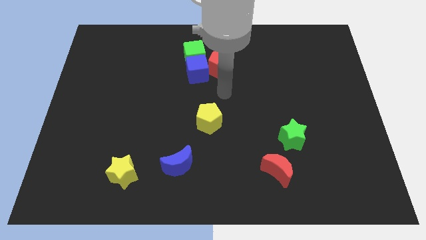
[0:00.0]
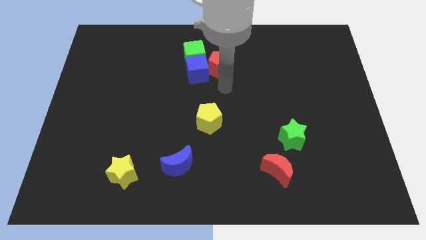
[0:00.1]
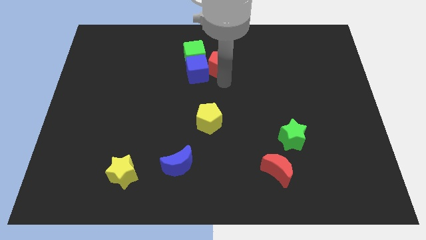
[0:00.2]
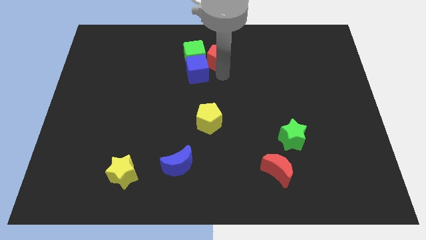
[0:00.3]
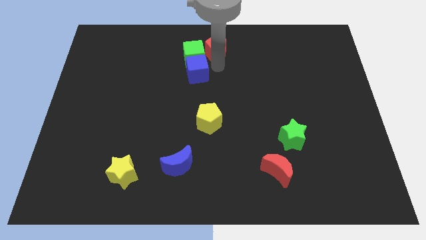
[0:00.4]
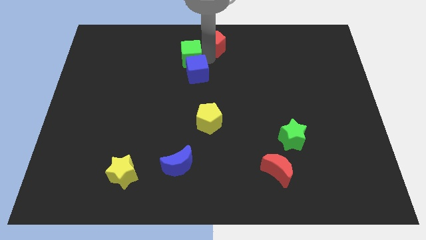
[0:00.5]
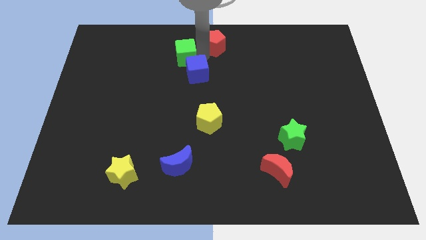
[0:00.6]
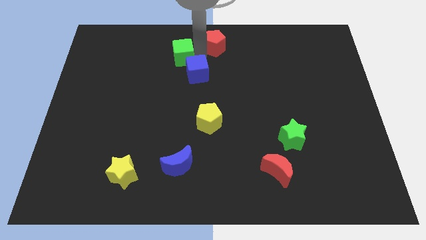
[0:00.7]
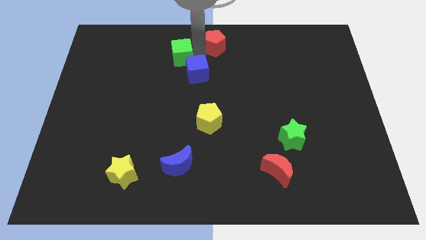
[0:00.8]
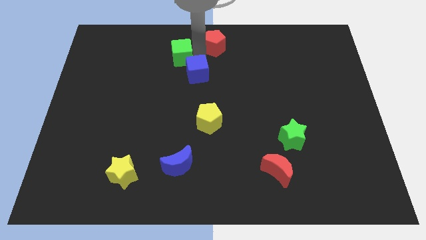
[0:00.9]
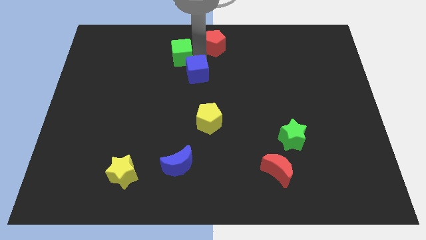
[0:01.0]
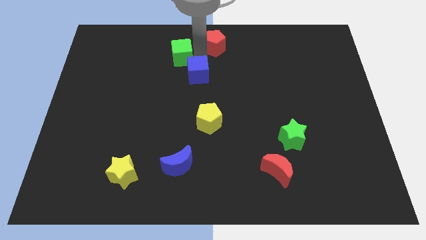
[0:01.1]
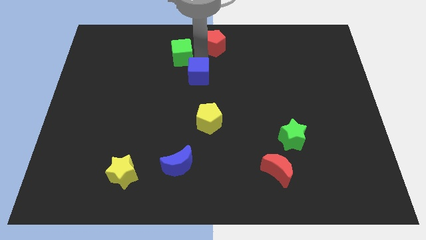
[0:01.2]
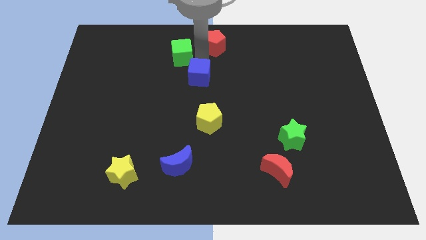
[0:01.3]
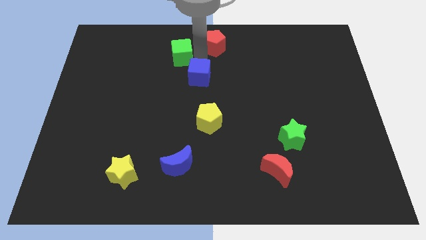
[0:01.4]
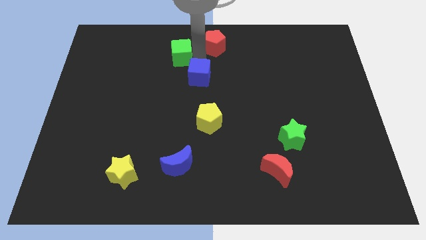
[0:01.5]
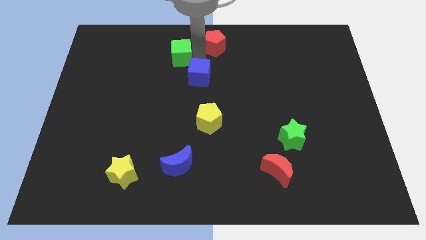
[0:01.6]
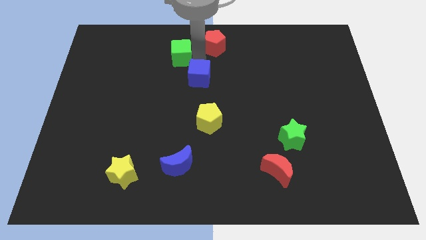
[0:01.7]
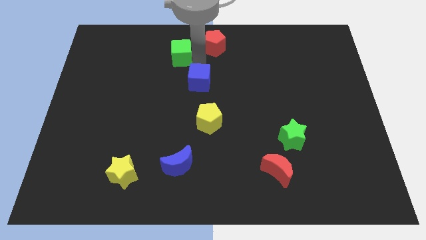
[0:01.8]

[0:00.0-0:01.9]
separate the blue cube from the green cube and red pentagon

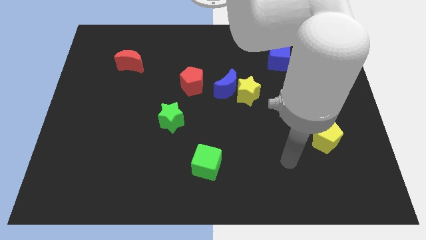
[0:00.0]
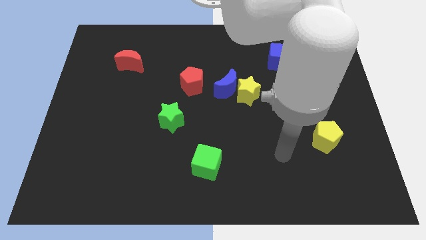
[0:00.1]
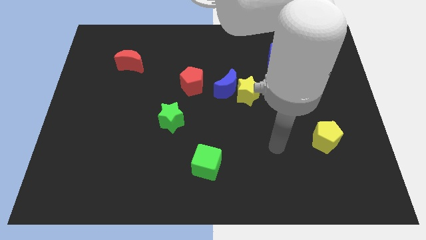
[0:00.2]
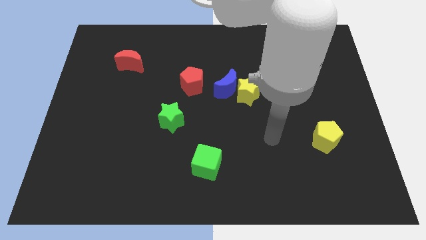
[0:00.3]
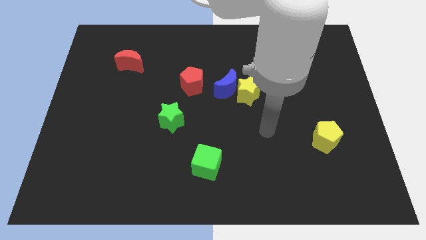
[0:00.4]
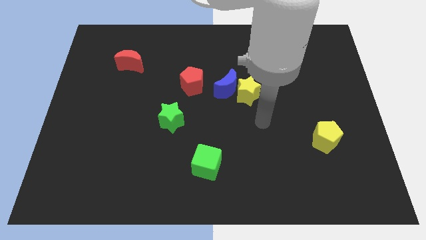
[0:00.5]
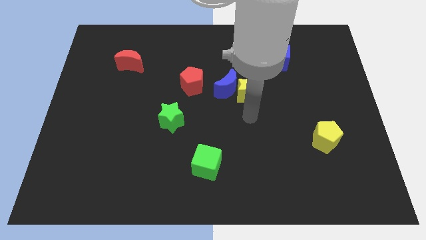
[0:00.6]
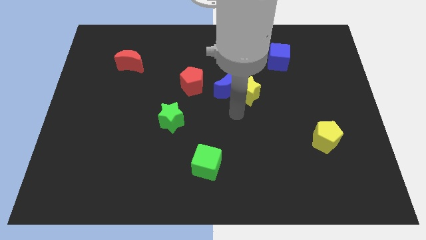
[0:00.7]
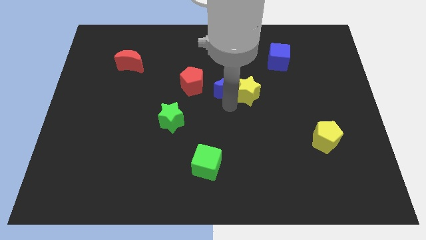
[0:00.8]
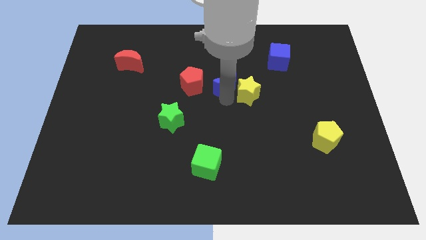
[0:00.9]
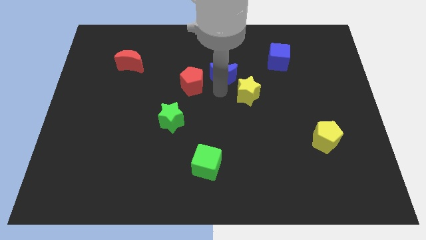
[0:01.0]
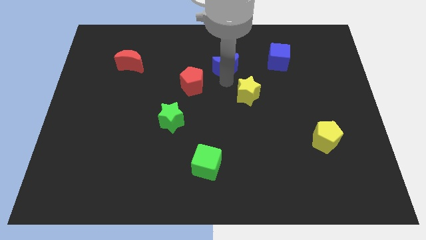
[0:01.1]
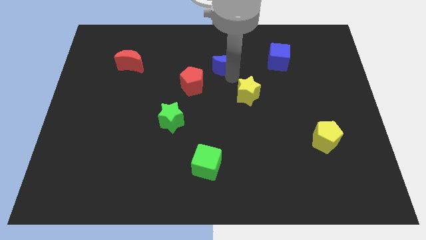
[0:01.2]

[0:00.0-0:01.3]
pull the yellow star apart from the blue moon

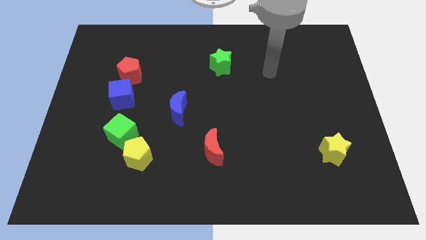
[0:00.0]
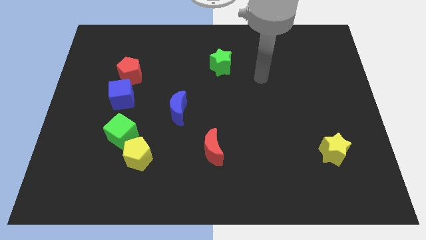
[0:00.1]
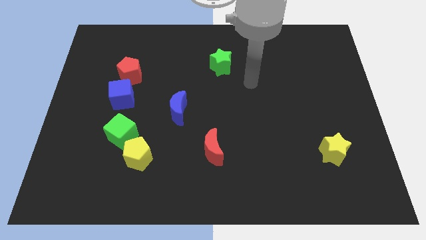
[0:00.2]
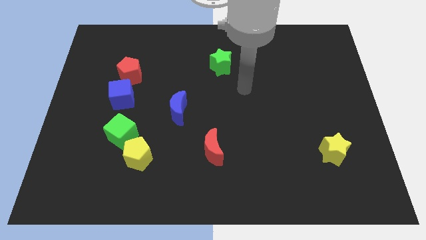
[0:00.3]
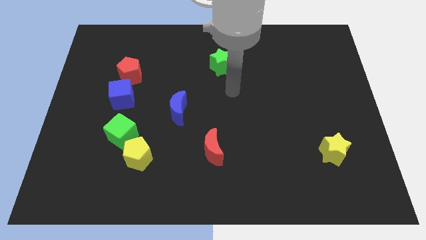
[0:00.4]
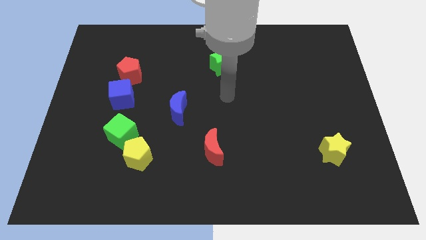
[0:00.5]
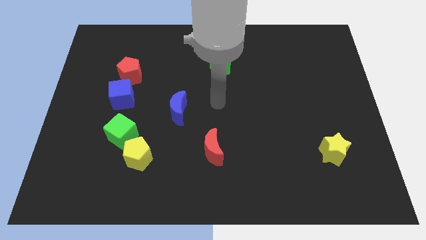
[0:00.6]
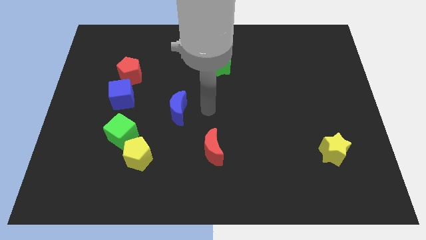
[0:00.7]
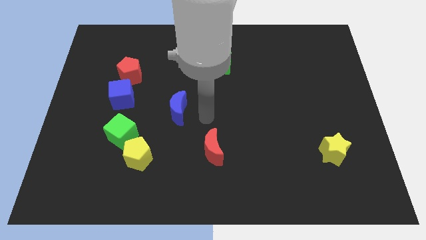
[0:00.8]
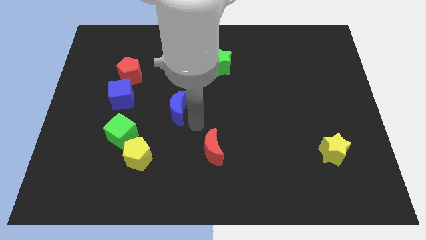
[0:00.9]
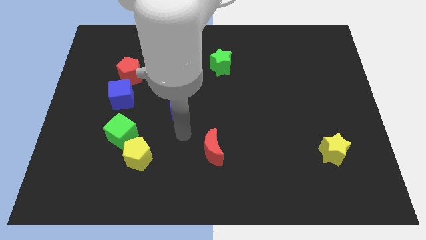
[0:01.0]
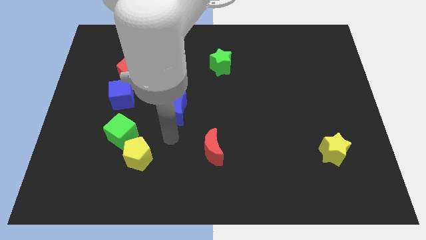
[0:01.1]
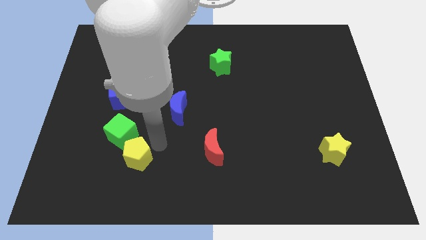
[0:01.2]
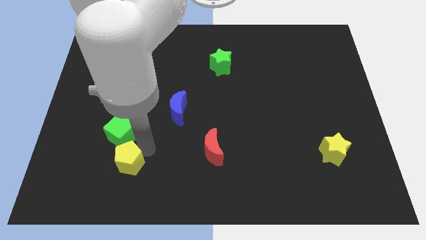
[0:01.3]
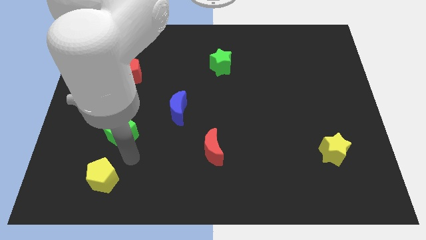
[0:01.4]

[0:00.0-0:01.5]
pull the green cube apart from the yellow pentagon

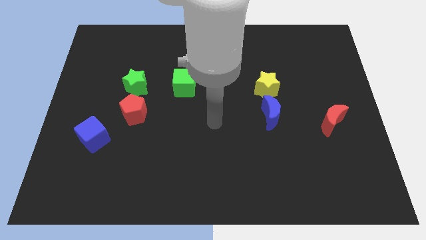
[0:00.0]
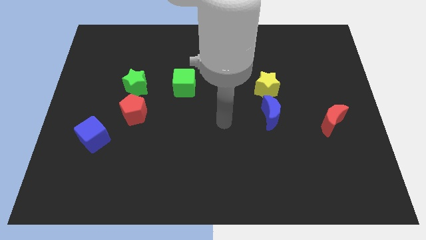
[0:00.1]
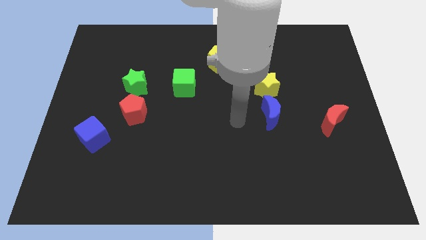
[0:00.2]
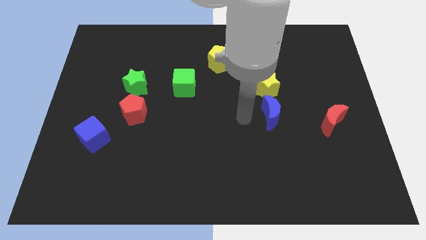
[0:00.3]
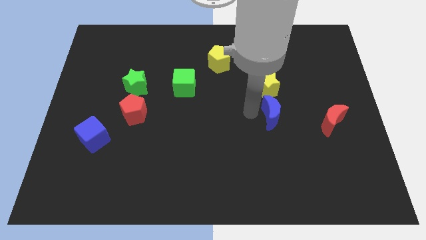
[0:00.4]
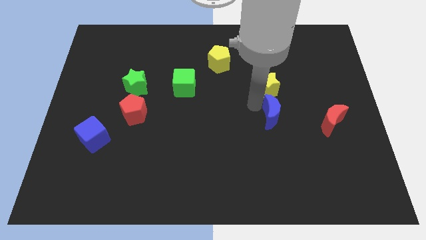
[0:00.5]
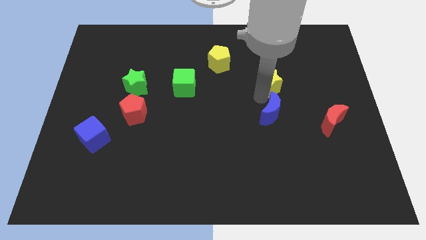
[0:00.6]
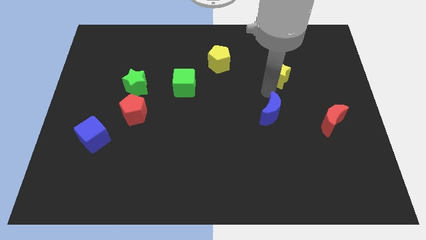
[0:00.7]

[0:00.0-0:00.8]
move the blue moon away from the yellow star

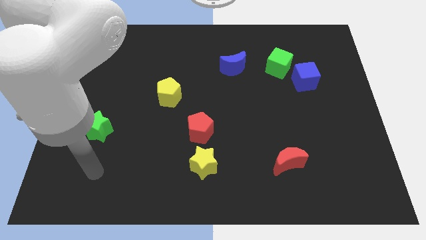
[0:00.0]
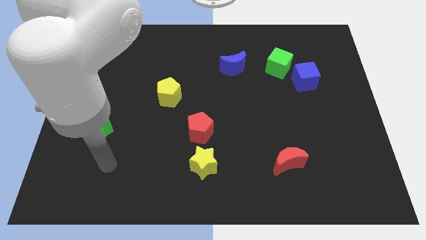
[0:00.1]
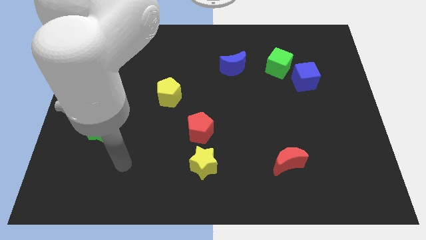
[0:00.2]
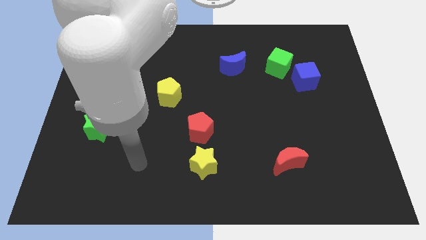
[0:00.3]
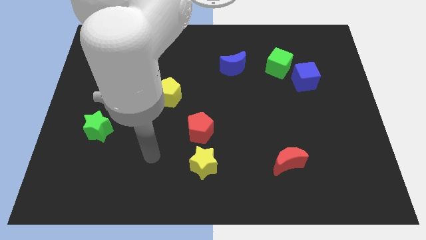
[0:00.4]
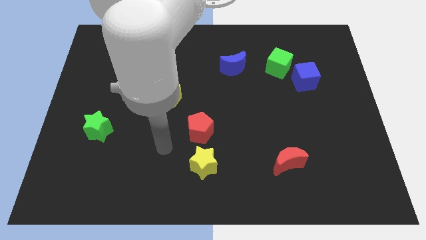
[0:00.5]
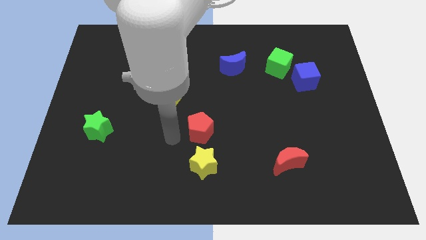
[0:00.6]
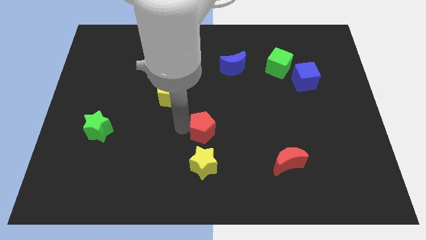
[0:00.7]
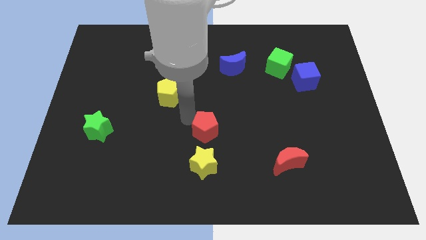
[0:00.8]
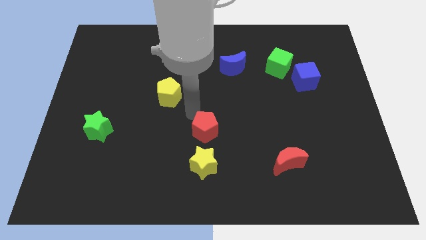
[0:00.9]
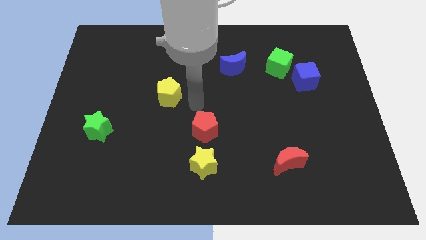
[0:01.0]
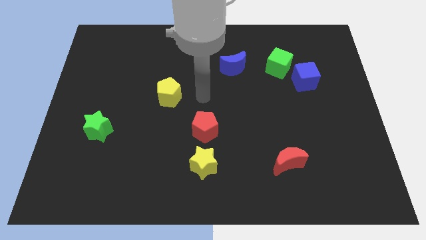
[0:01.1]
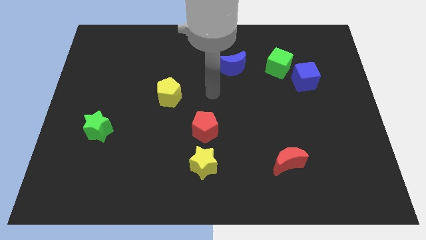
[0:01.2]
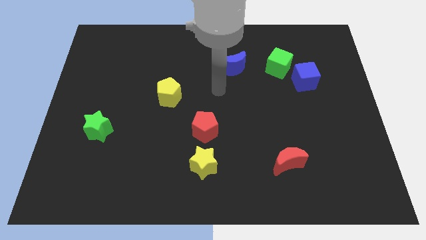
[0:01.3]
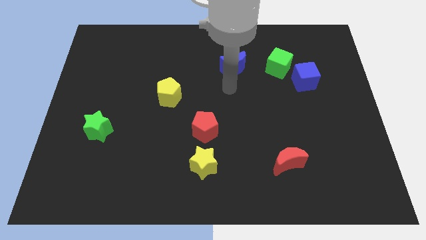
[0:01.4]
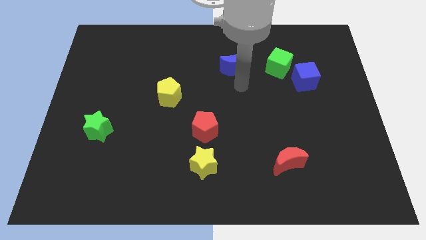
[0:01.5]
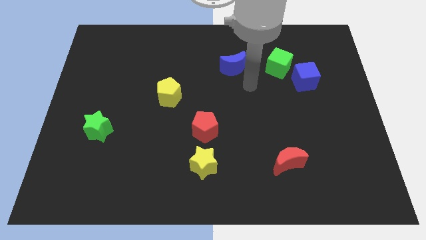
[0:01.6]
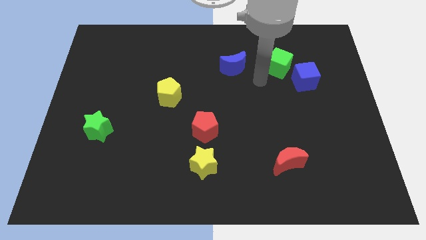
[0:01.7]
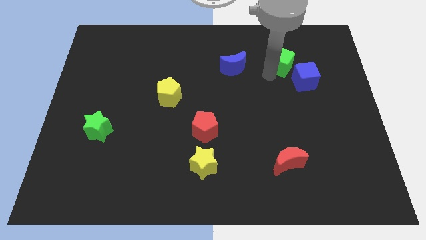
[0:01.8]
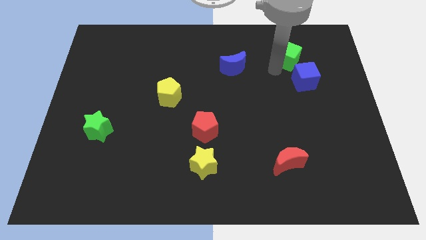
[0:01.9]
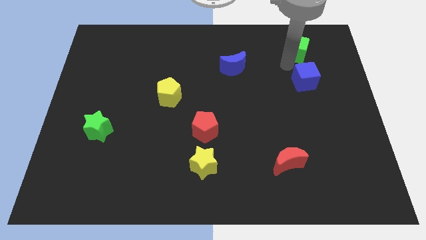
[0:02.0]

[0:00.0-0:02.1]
separate the blue cube from the green cube

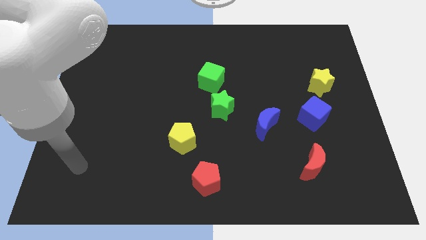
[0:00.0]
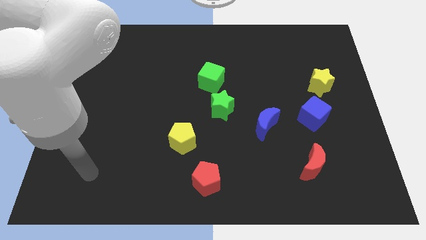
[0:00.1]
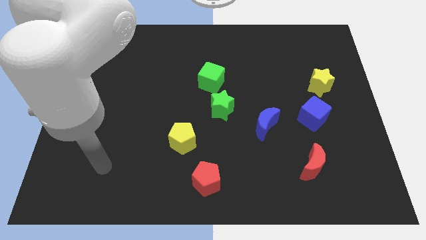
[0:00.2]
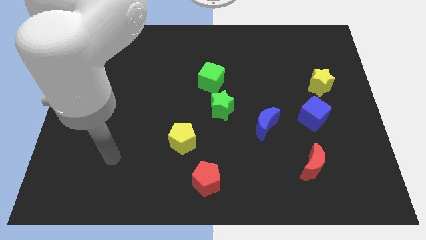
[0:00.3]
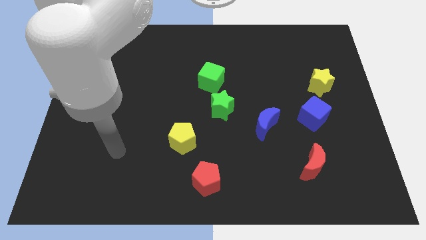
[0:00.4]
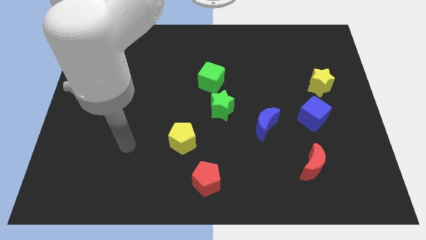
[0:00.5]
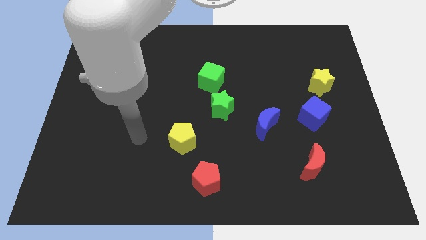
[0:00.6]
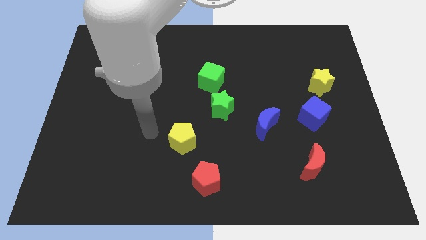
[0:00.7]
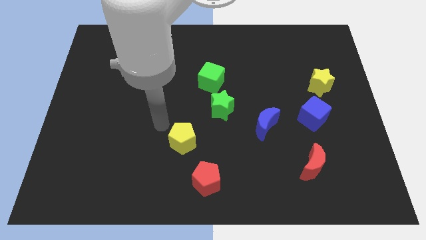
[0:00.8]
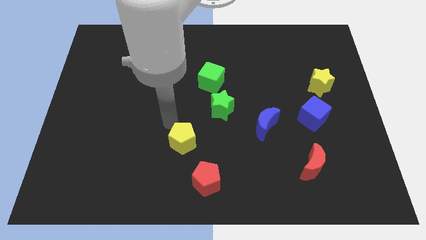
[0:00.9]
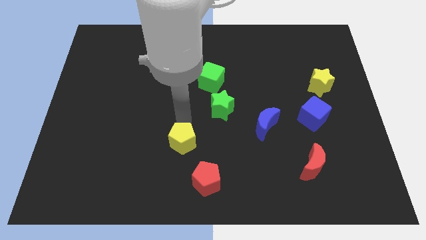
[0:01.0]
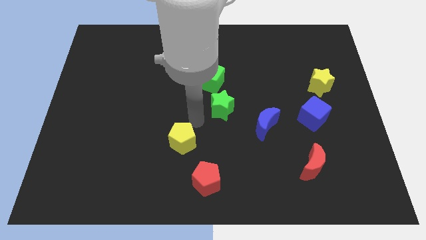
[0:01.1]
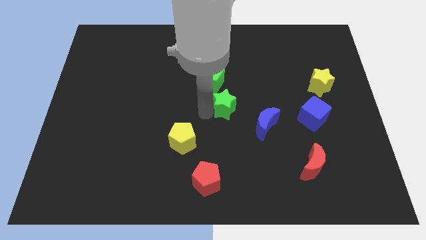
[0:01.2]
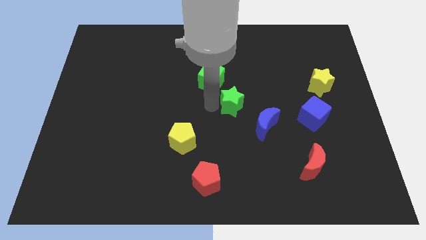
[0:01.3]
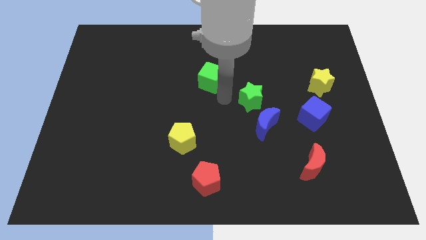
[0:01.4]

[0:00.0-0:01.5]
move the green cube away from the green star
